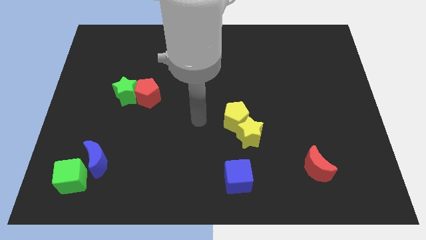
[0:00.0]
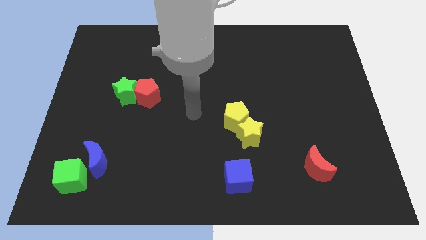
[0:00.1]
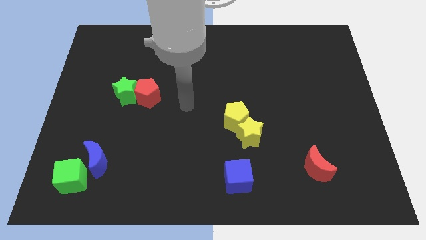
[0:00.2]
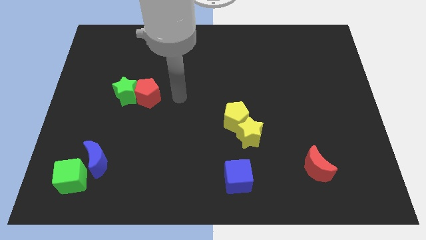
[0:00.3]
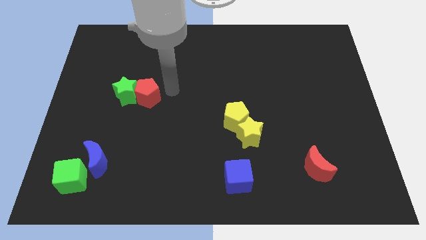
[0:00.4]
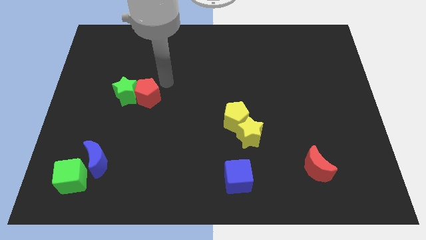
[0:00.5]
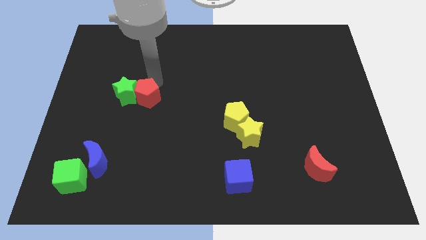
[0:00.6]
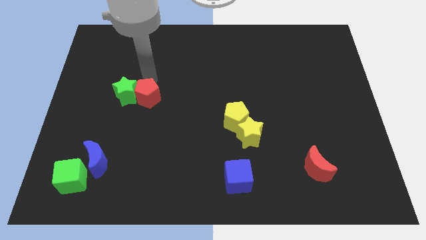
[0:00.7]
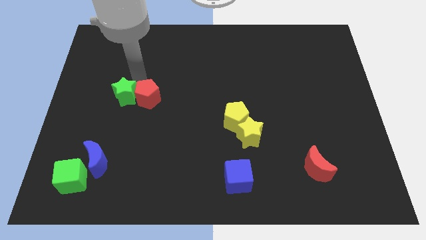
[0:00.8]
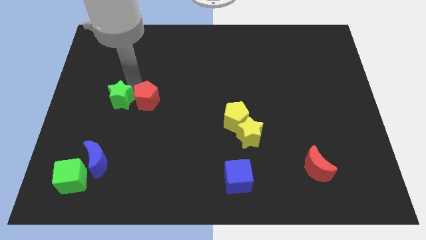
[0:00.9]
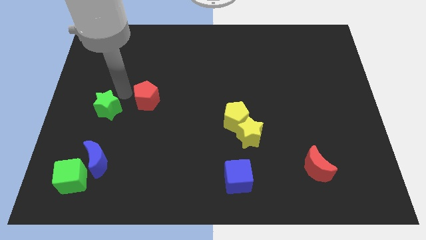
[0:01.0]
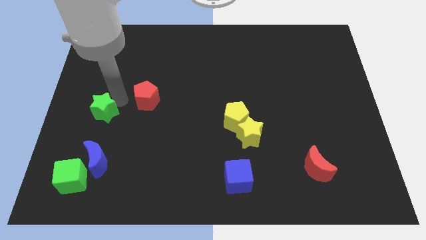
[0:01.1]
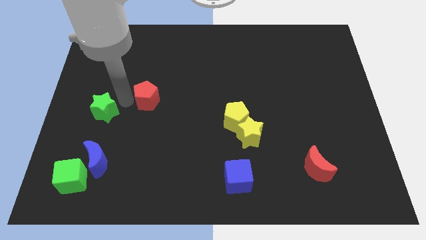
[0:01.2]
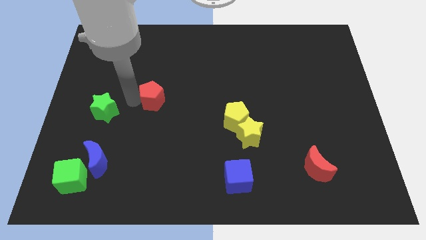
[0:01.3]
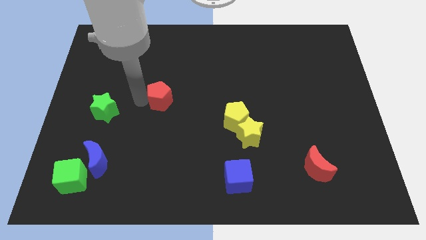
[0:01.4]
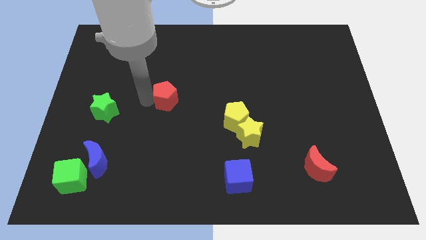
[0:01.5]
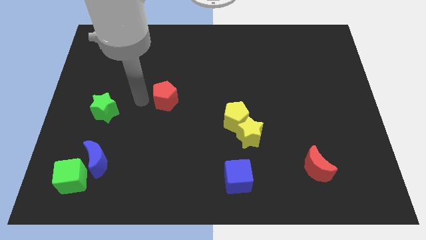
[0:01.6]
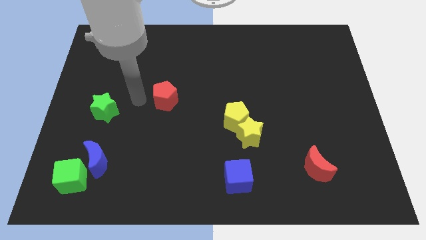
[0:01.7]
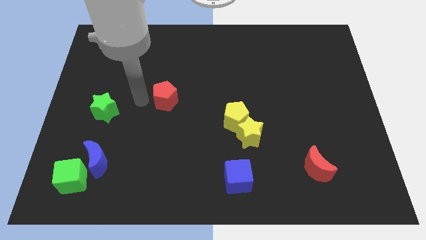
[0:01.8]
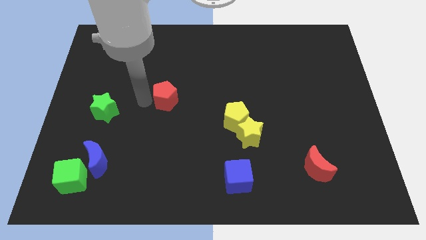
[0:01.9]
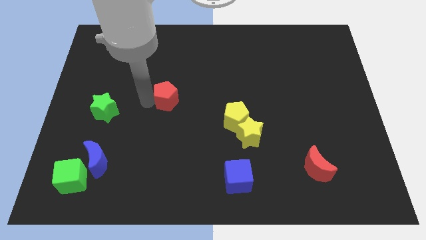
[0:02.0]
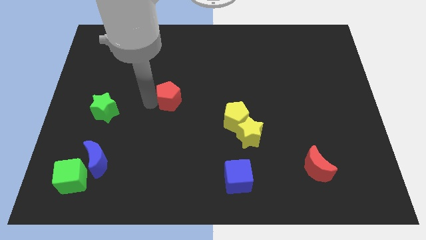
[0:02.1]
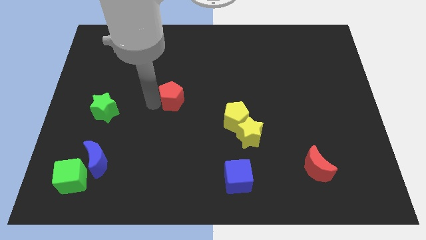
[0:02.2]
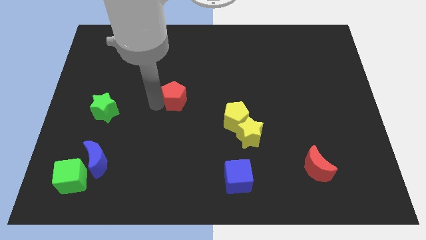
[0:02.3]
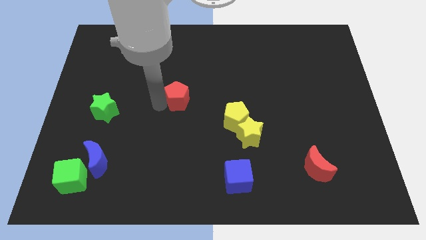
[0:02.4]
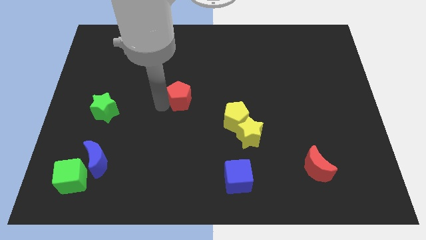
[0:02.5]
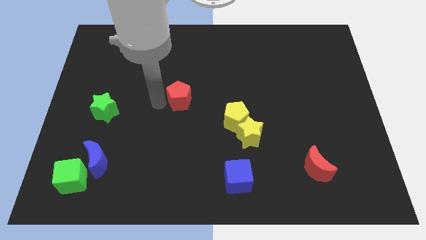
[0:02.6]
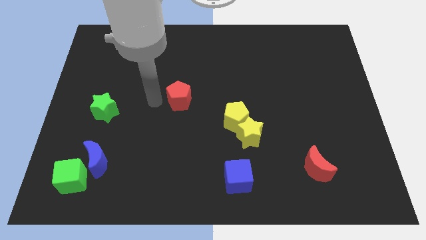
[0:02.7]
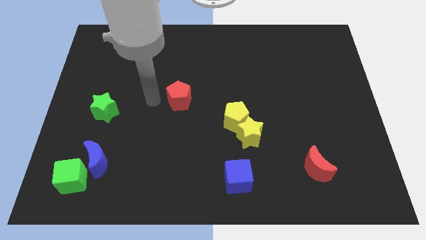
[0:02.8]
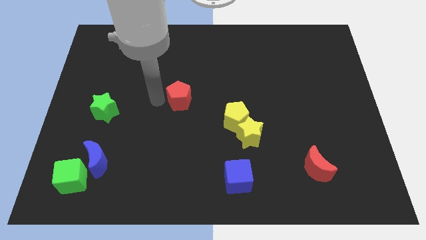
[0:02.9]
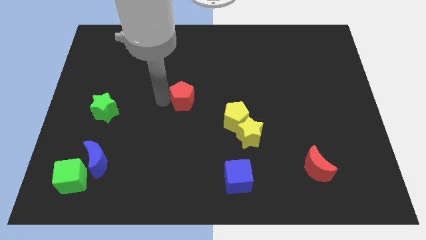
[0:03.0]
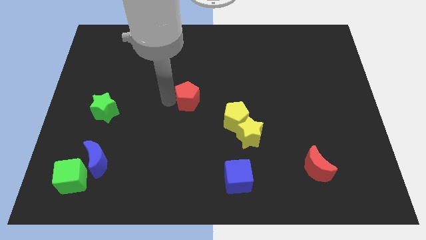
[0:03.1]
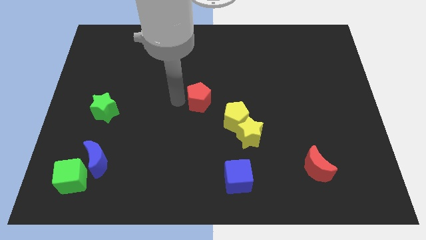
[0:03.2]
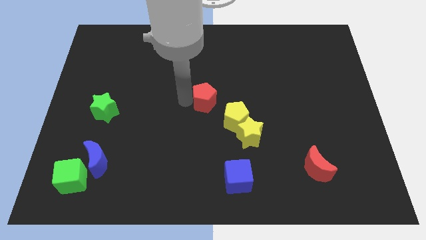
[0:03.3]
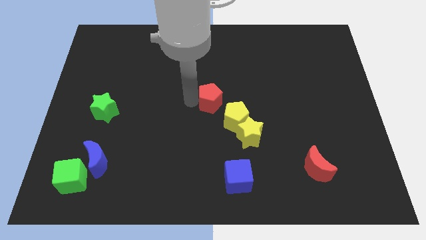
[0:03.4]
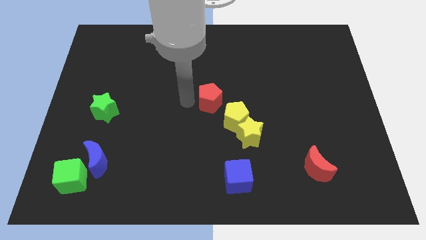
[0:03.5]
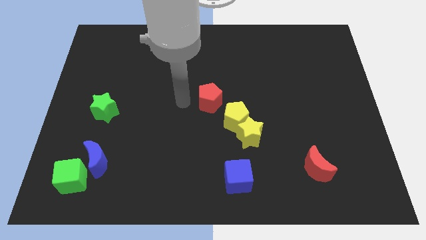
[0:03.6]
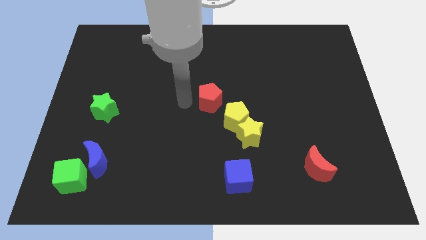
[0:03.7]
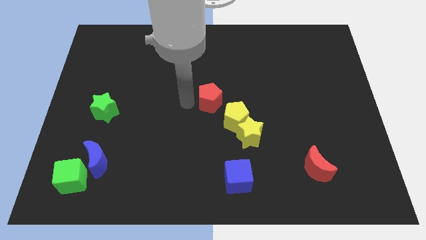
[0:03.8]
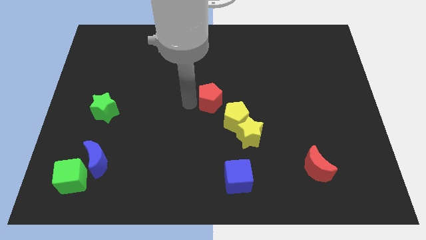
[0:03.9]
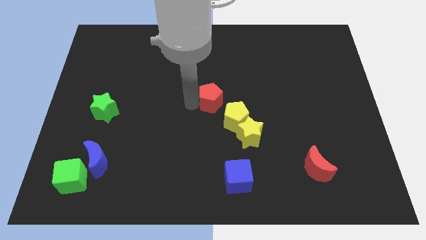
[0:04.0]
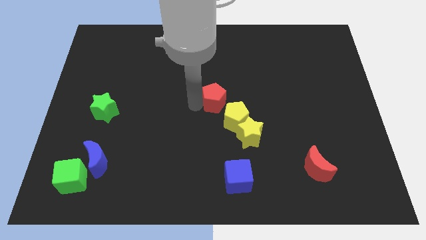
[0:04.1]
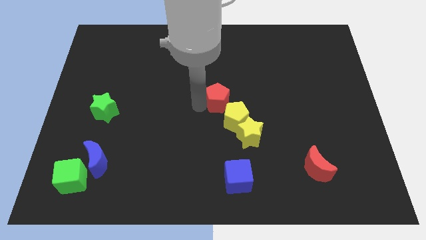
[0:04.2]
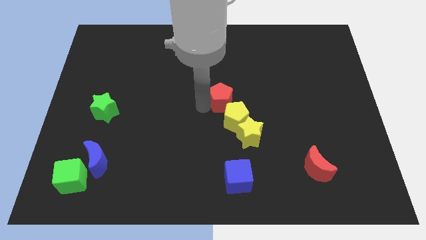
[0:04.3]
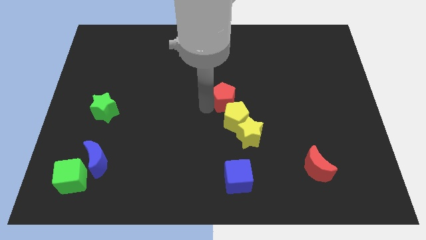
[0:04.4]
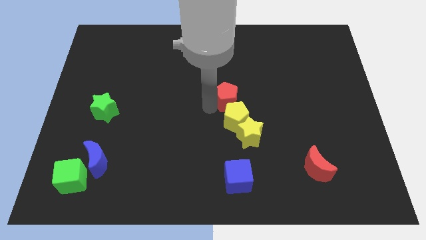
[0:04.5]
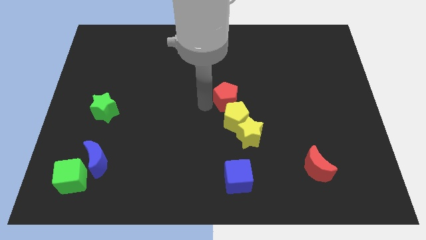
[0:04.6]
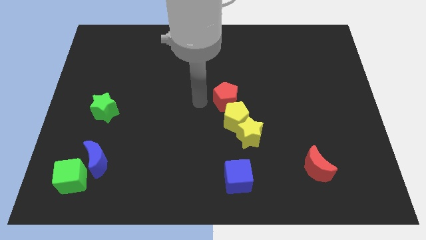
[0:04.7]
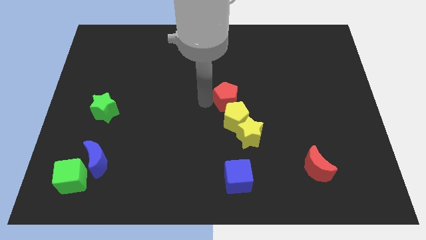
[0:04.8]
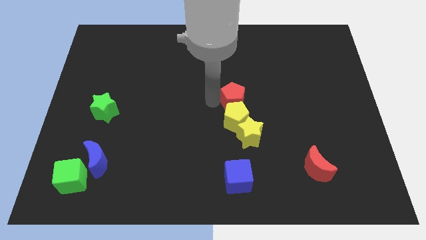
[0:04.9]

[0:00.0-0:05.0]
slide the red pentagon right

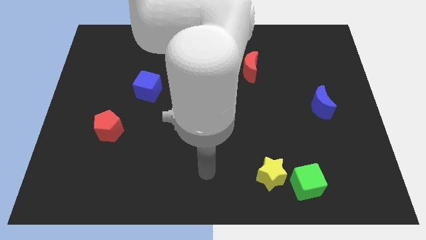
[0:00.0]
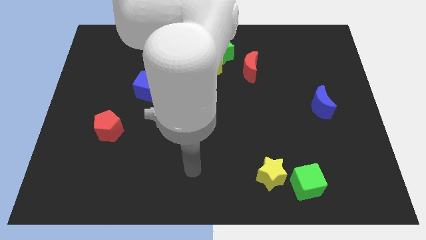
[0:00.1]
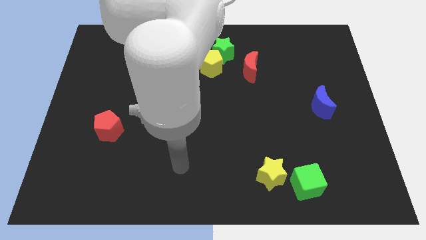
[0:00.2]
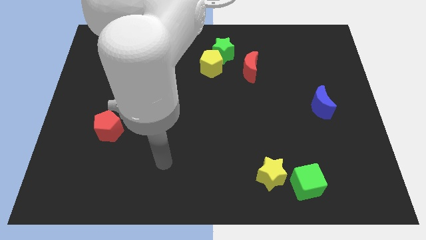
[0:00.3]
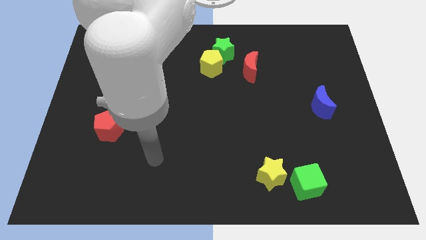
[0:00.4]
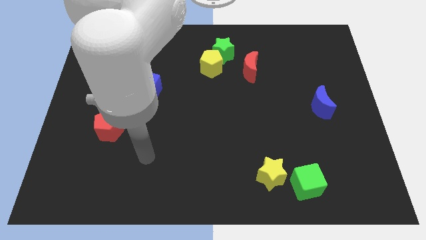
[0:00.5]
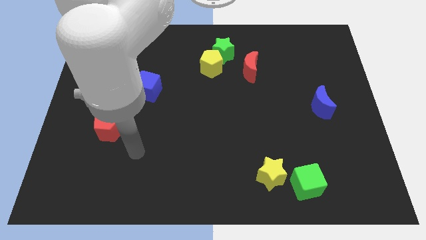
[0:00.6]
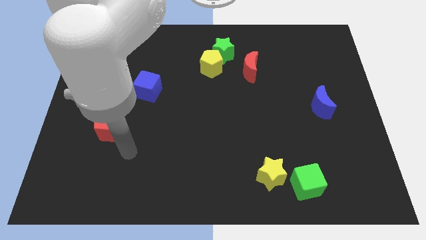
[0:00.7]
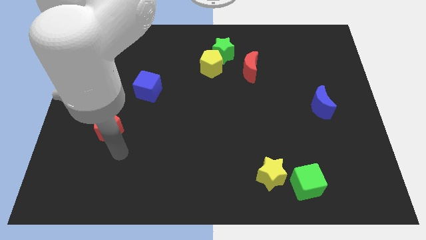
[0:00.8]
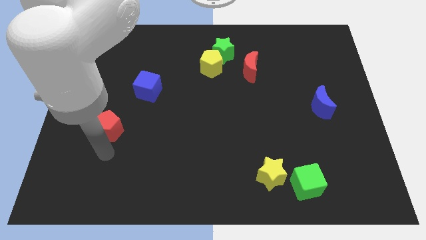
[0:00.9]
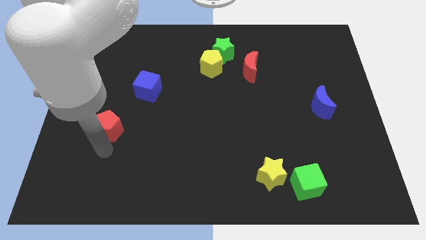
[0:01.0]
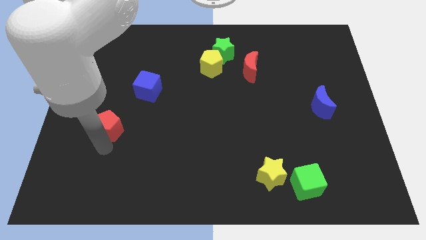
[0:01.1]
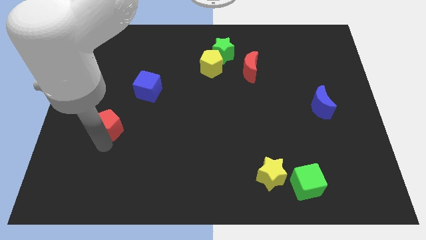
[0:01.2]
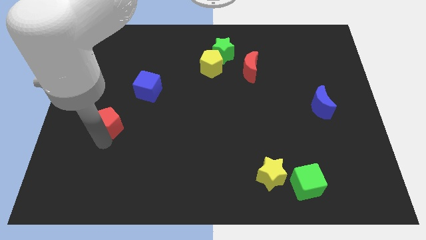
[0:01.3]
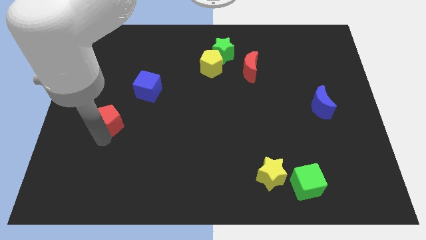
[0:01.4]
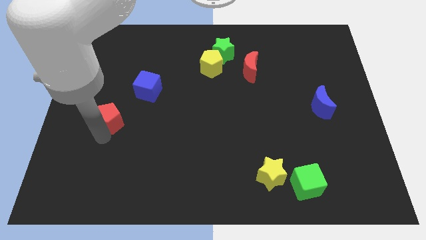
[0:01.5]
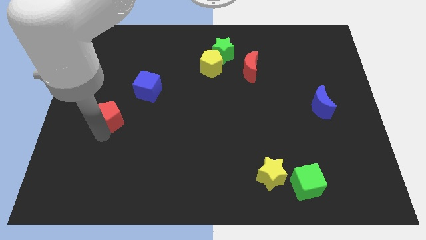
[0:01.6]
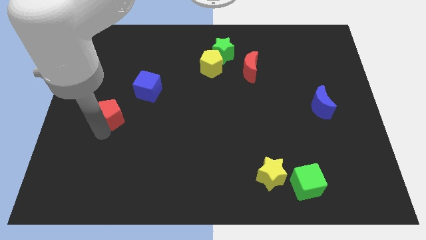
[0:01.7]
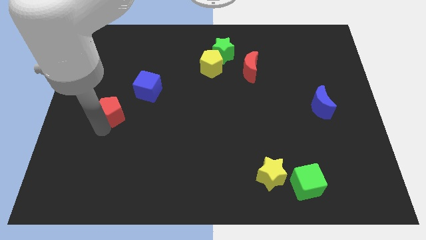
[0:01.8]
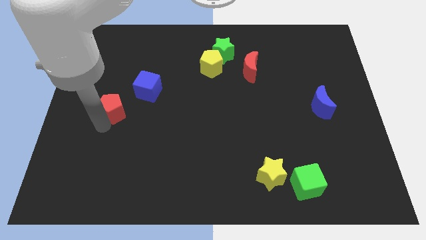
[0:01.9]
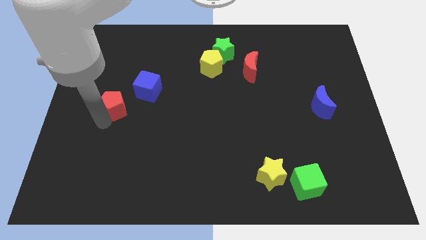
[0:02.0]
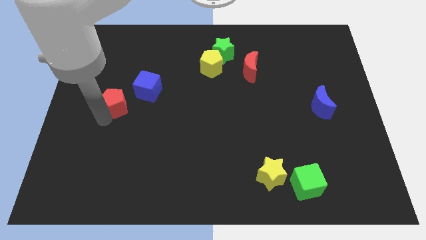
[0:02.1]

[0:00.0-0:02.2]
slide the red pentagon upwards a little bit

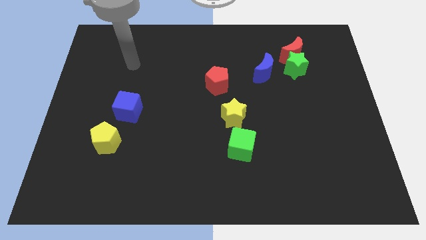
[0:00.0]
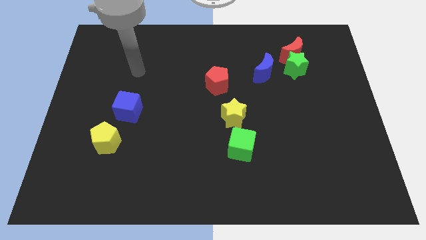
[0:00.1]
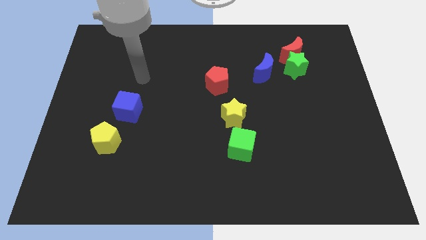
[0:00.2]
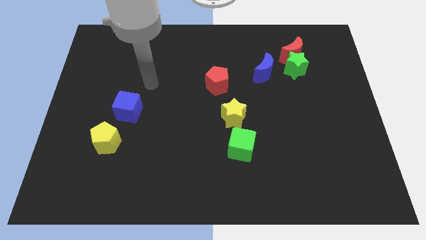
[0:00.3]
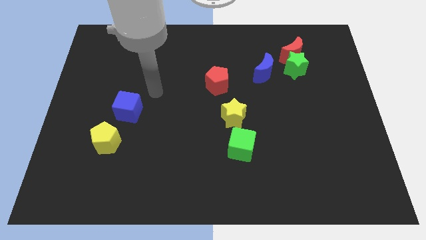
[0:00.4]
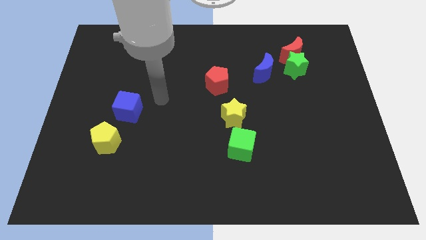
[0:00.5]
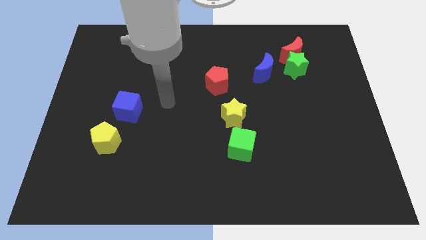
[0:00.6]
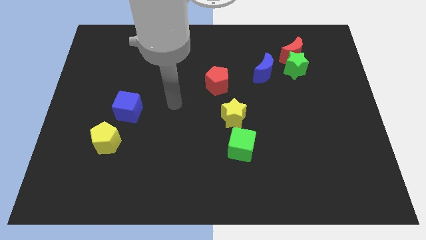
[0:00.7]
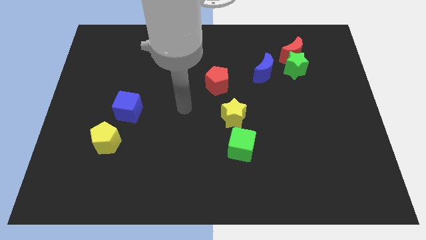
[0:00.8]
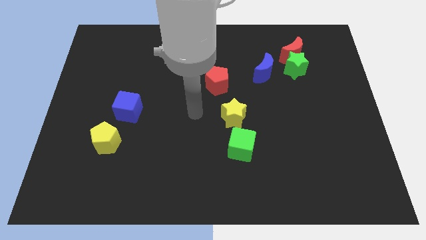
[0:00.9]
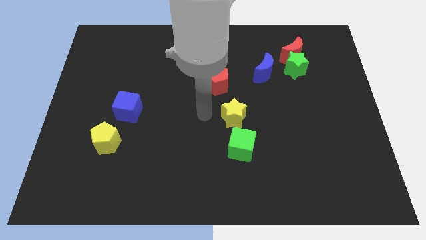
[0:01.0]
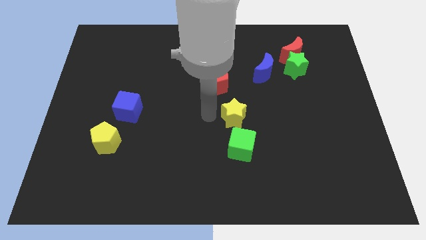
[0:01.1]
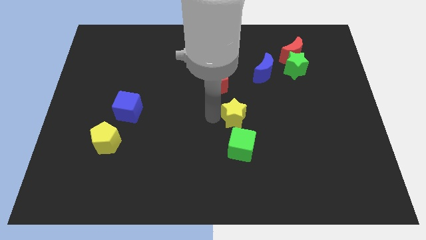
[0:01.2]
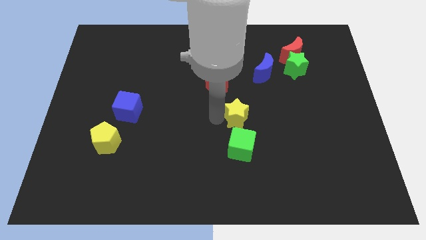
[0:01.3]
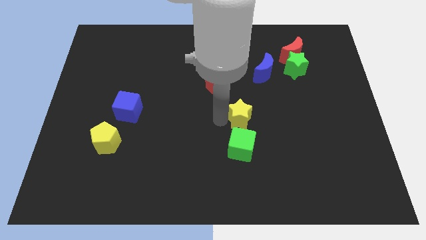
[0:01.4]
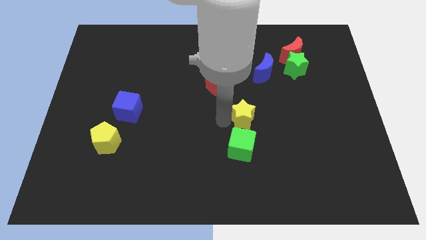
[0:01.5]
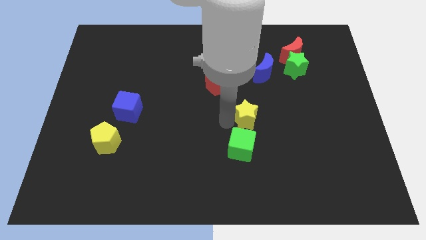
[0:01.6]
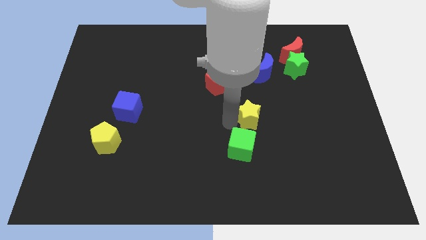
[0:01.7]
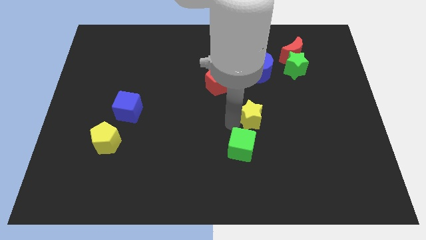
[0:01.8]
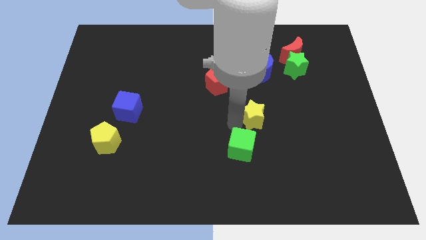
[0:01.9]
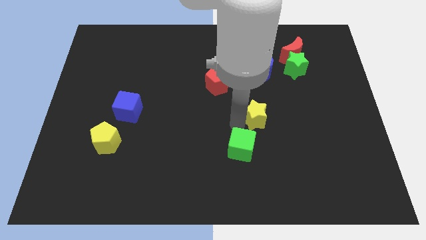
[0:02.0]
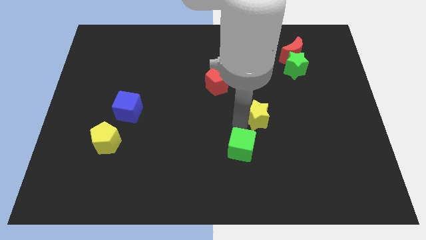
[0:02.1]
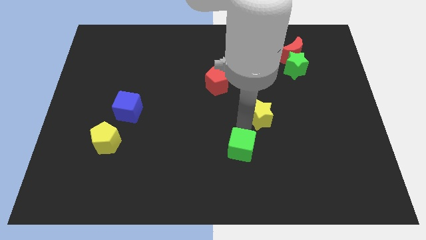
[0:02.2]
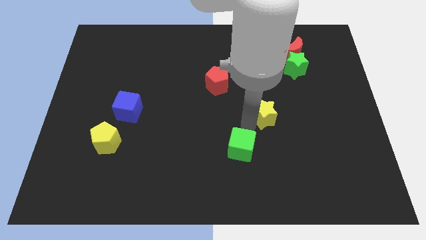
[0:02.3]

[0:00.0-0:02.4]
push the yellow star to the right a little
